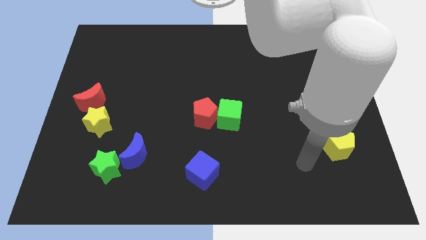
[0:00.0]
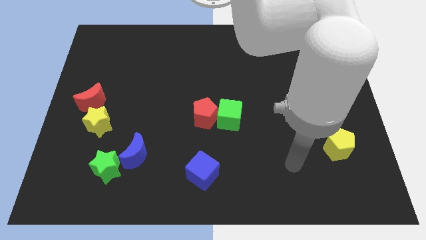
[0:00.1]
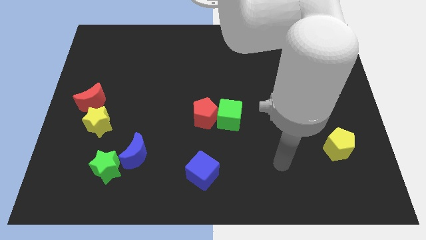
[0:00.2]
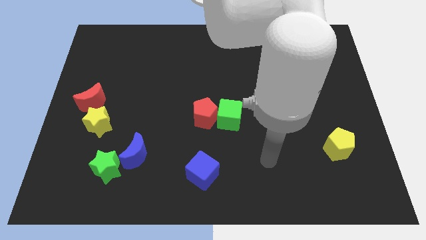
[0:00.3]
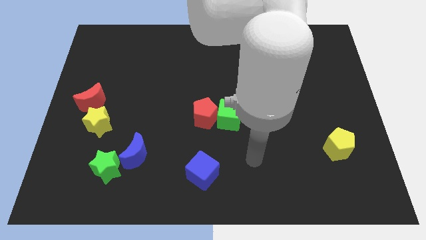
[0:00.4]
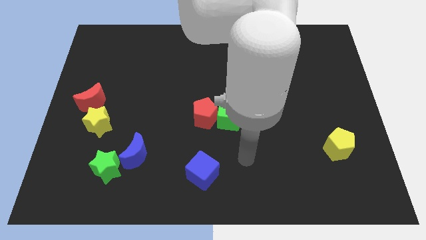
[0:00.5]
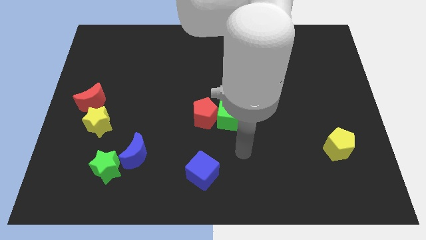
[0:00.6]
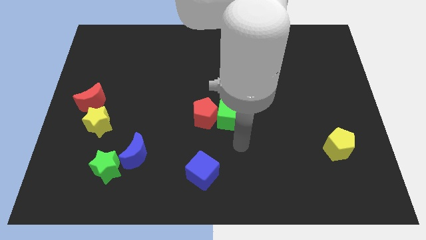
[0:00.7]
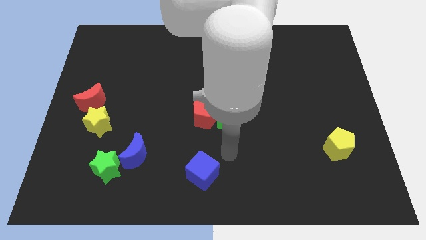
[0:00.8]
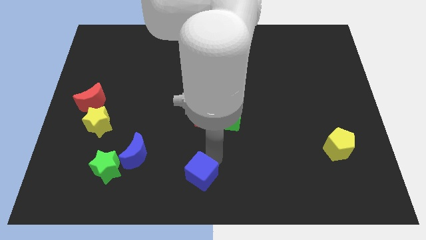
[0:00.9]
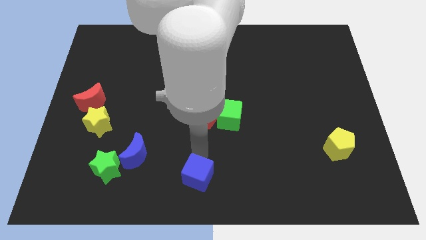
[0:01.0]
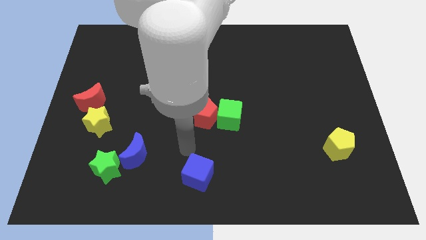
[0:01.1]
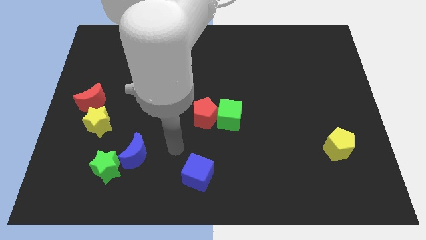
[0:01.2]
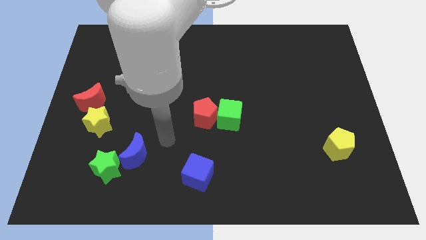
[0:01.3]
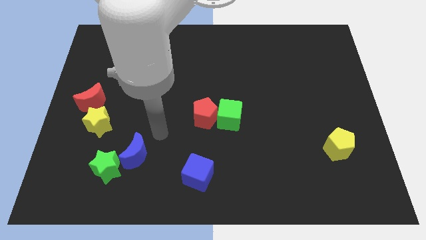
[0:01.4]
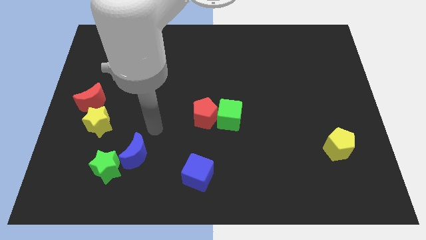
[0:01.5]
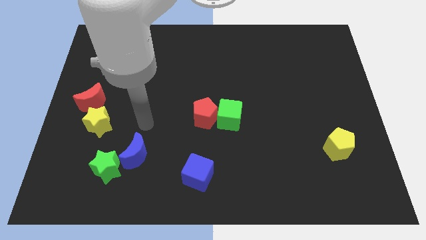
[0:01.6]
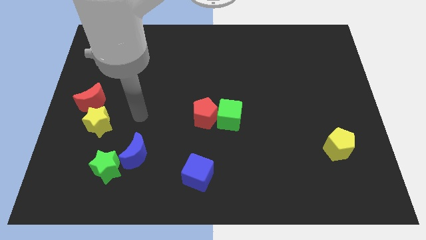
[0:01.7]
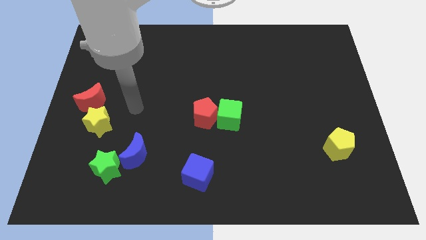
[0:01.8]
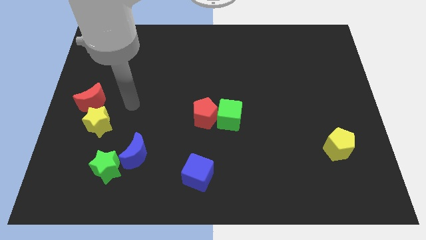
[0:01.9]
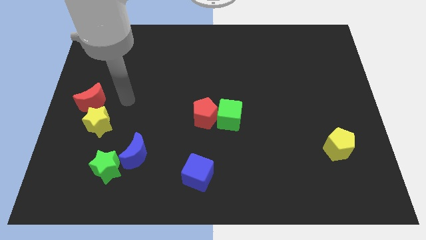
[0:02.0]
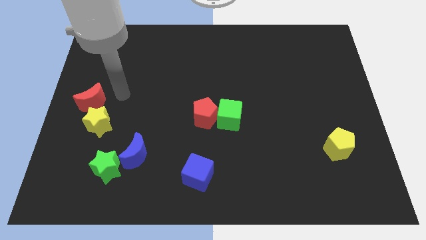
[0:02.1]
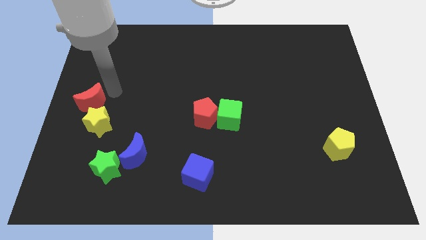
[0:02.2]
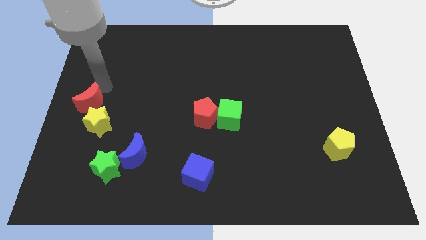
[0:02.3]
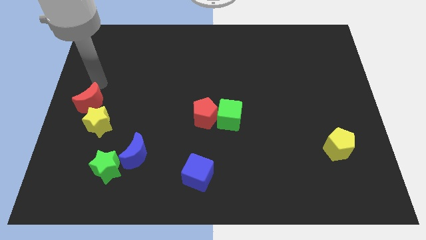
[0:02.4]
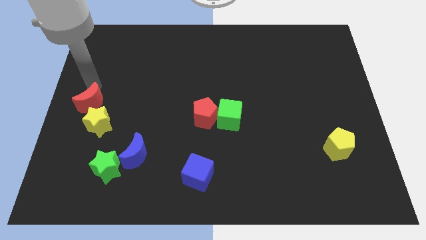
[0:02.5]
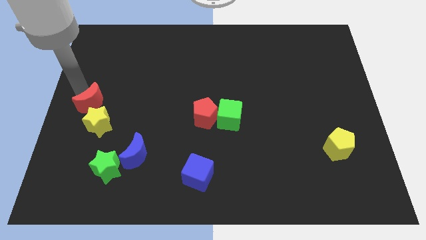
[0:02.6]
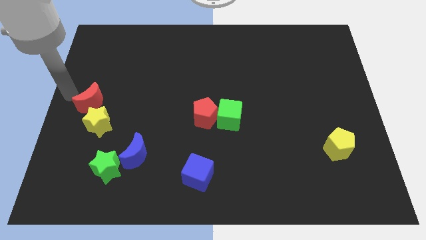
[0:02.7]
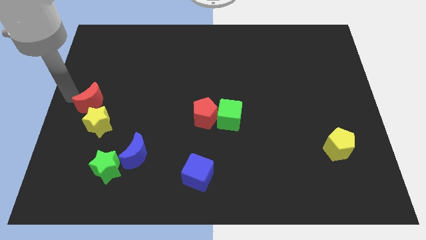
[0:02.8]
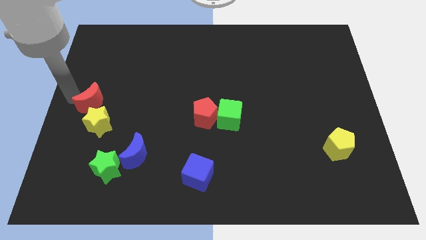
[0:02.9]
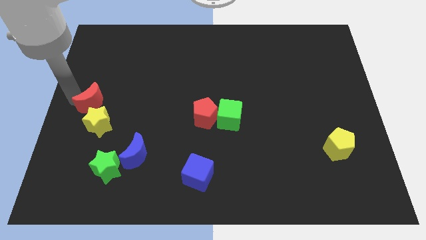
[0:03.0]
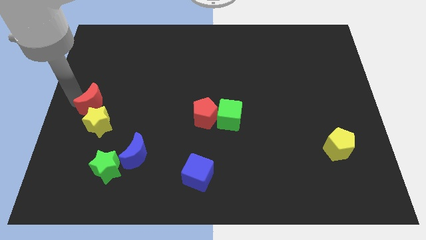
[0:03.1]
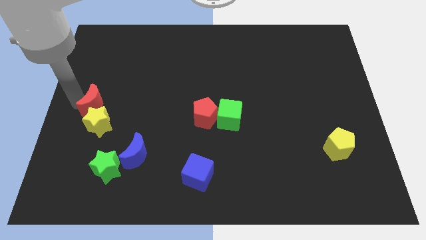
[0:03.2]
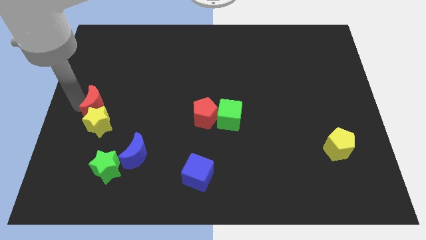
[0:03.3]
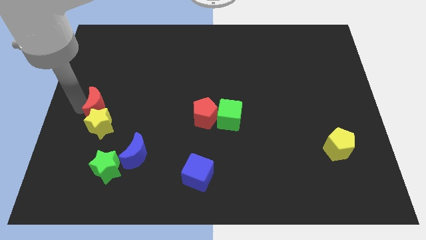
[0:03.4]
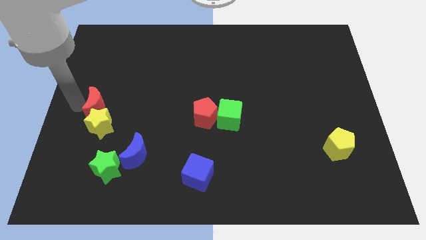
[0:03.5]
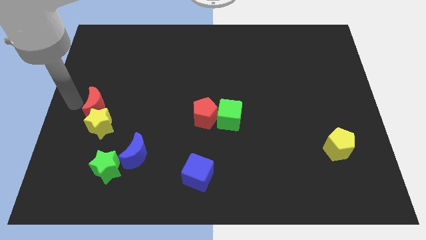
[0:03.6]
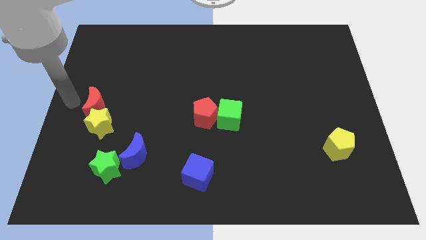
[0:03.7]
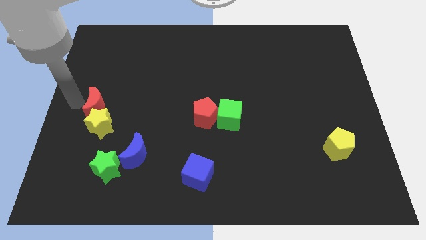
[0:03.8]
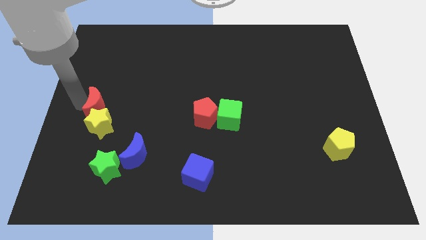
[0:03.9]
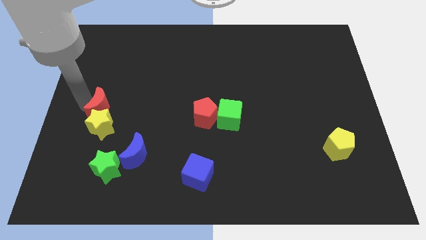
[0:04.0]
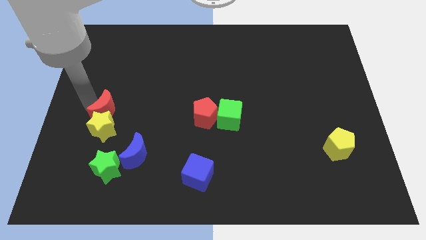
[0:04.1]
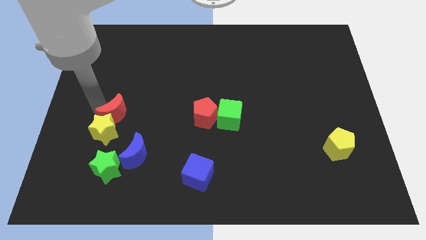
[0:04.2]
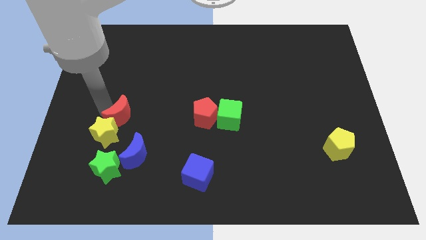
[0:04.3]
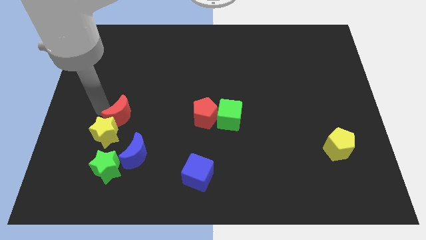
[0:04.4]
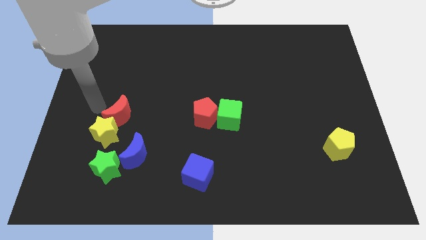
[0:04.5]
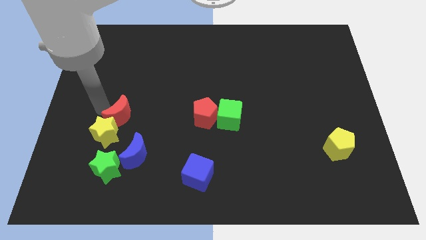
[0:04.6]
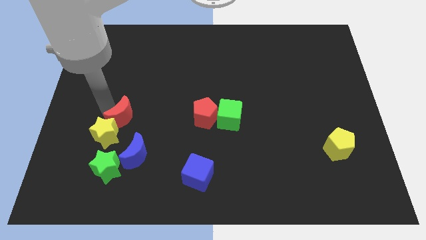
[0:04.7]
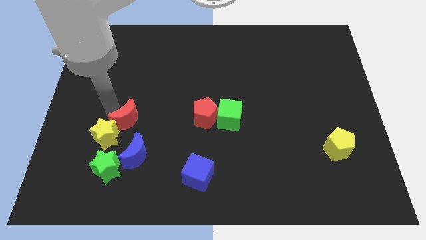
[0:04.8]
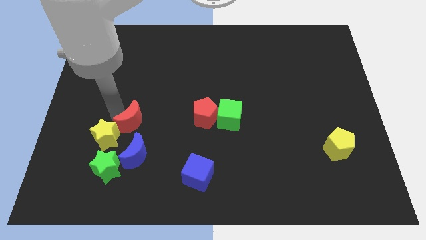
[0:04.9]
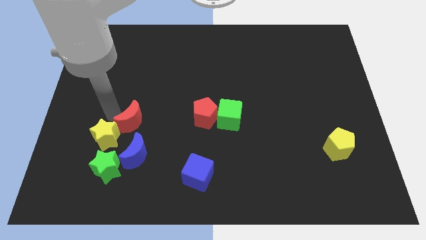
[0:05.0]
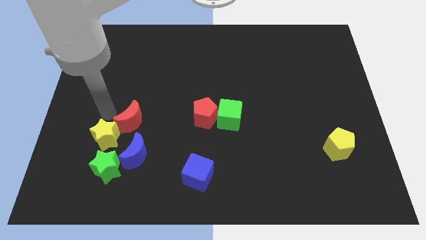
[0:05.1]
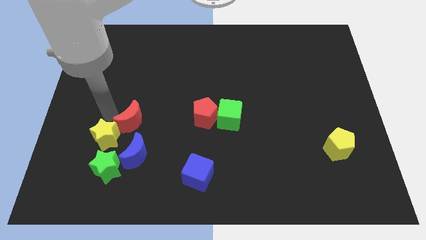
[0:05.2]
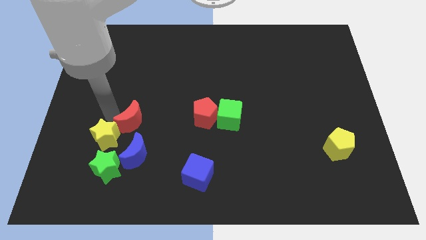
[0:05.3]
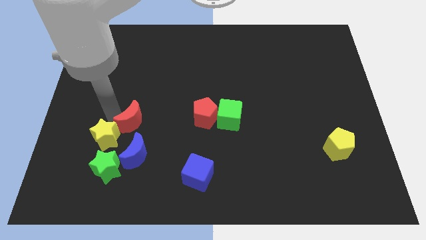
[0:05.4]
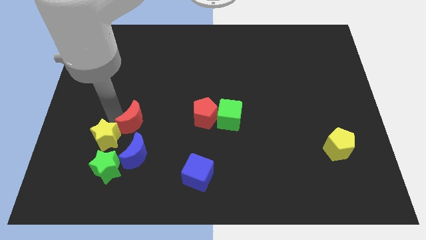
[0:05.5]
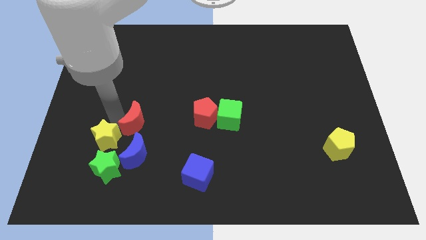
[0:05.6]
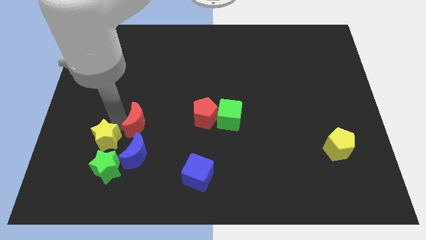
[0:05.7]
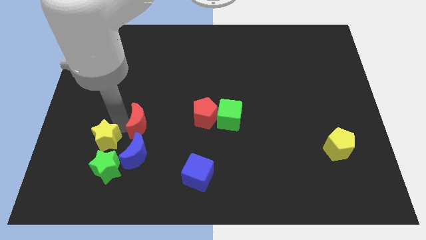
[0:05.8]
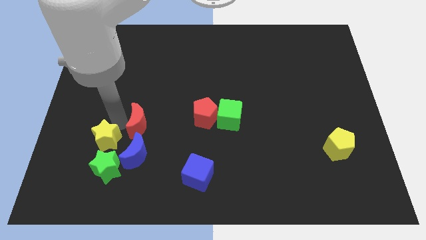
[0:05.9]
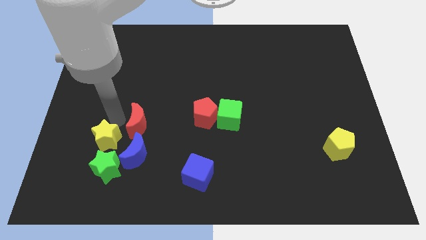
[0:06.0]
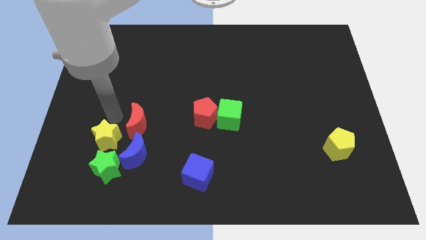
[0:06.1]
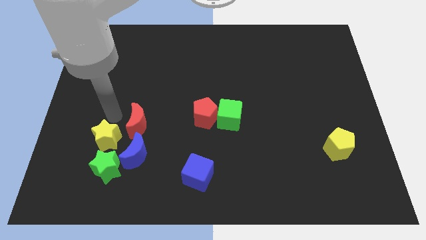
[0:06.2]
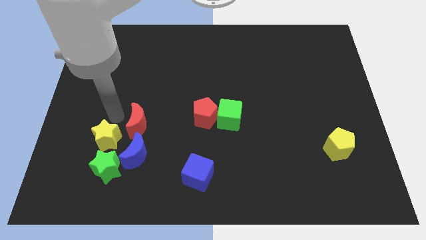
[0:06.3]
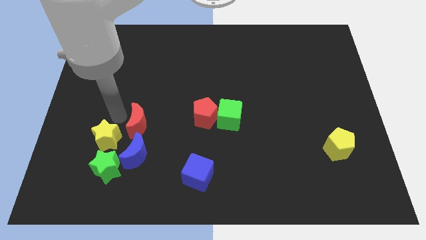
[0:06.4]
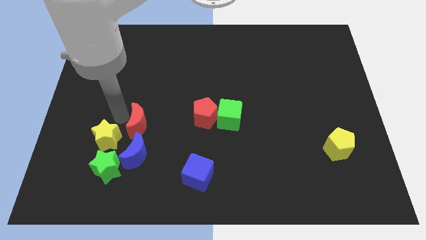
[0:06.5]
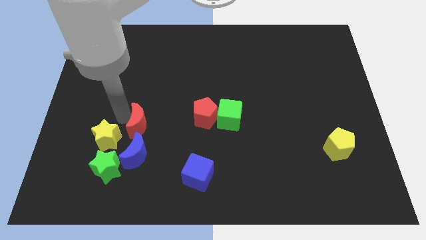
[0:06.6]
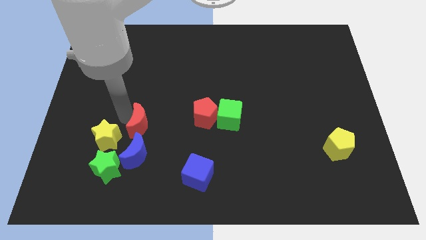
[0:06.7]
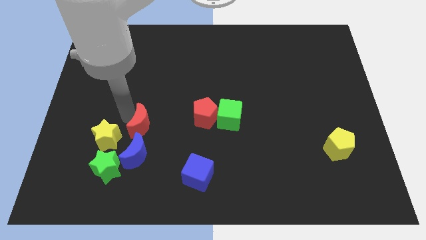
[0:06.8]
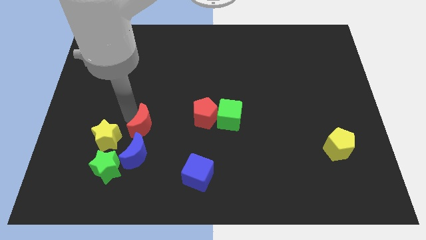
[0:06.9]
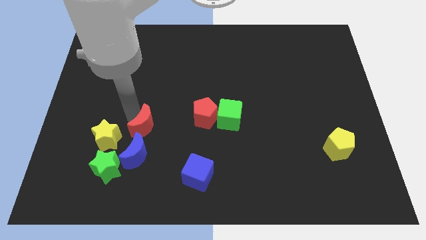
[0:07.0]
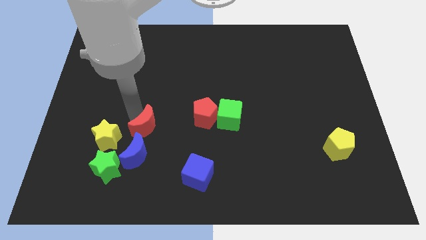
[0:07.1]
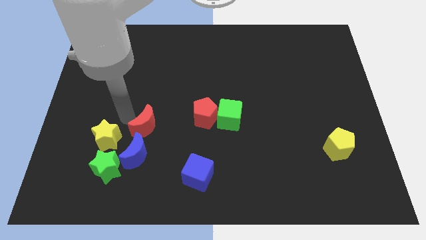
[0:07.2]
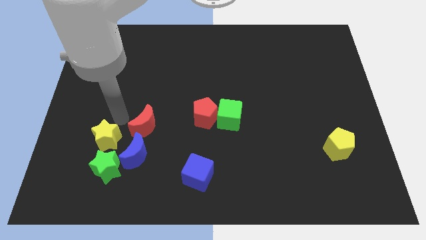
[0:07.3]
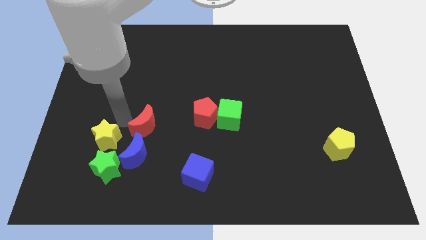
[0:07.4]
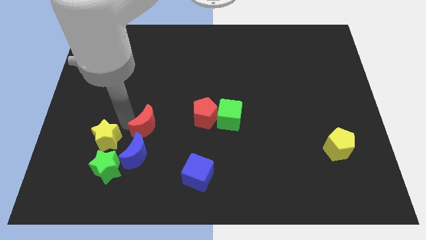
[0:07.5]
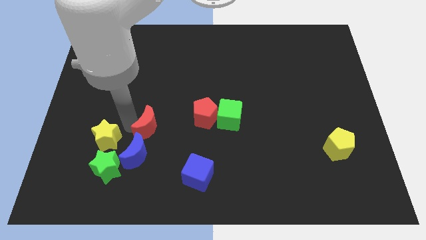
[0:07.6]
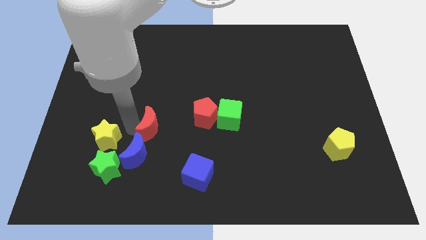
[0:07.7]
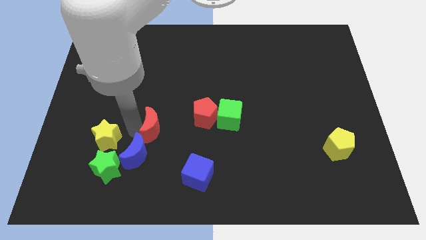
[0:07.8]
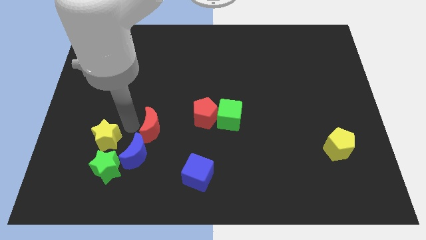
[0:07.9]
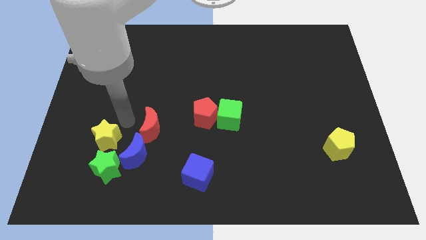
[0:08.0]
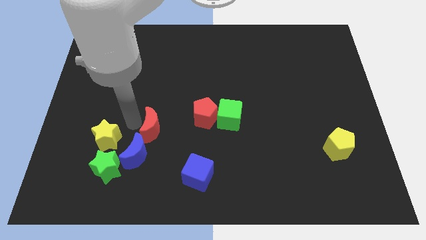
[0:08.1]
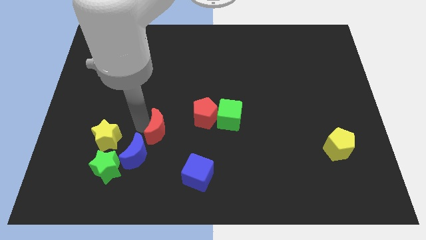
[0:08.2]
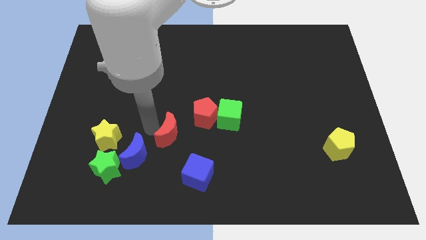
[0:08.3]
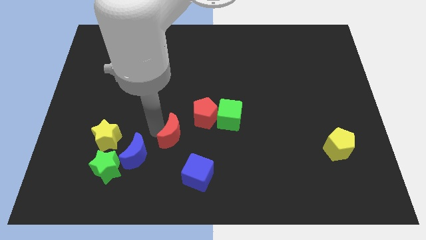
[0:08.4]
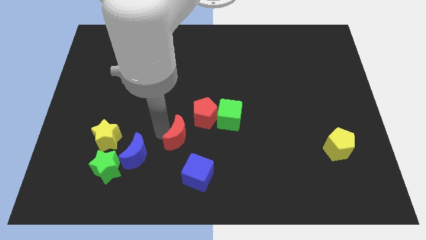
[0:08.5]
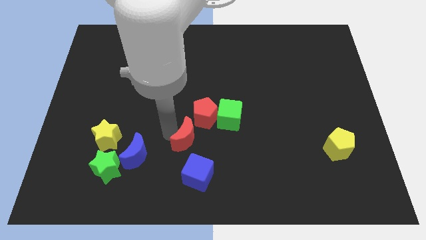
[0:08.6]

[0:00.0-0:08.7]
put the red moon below the red pentagon
